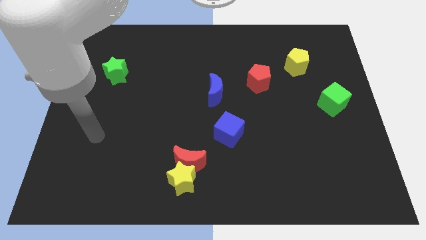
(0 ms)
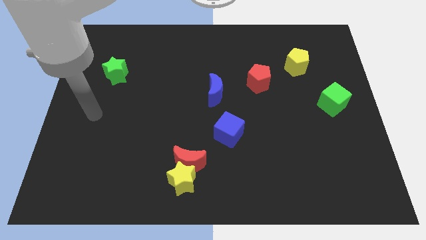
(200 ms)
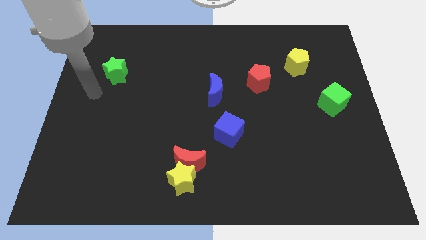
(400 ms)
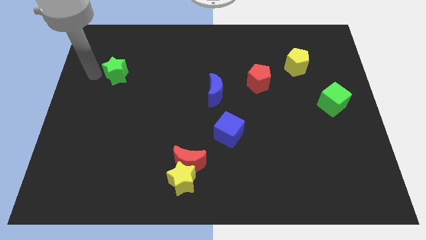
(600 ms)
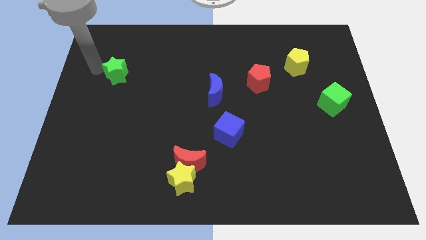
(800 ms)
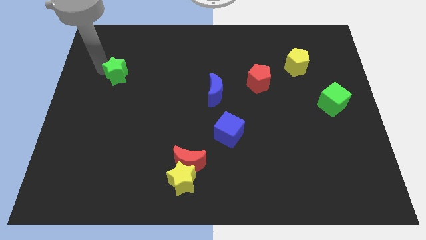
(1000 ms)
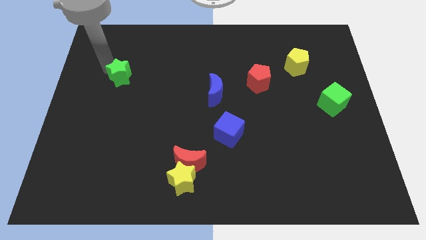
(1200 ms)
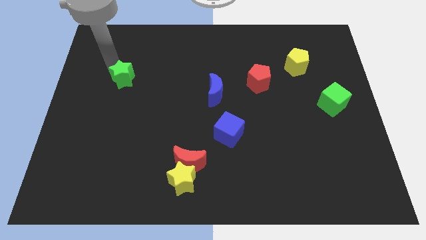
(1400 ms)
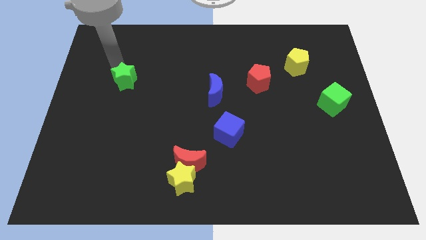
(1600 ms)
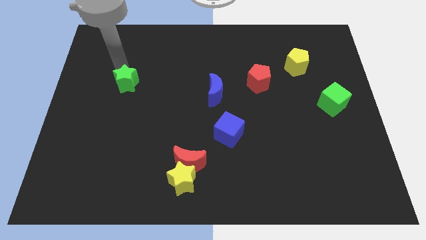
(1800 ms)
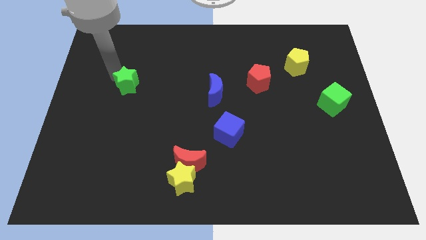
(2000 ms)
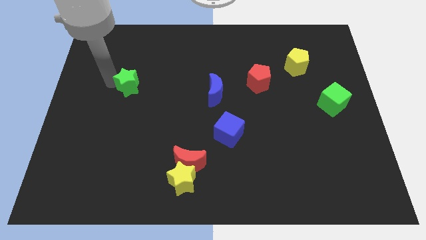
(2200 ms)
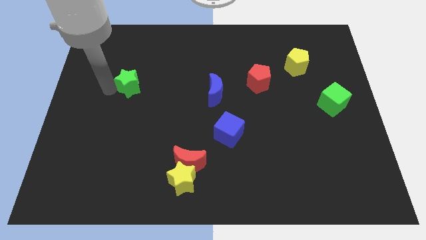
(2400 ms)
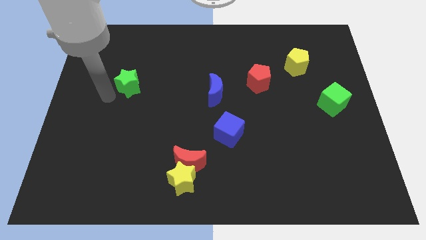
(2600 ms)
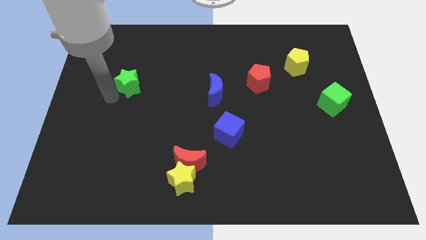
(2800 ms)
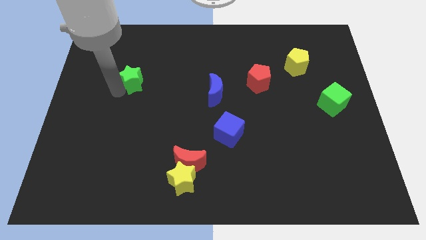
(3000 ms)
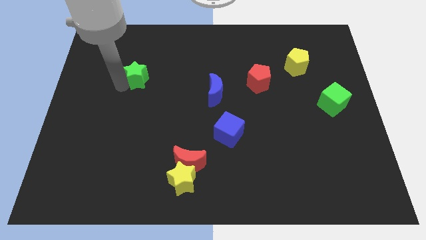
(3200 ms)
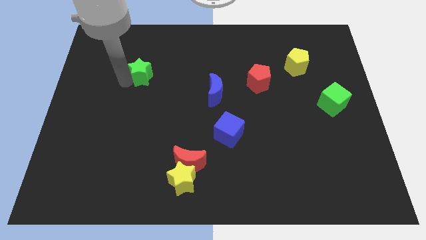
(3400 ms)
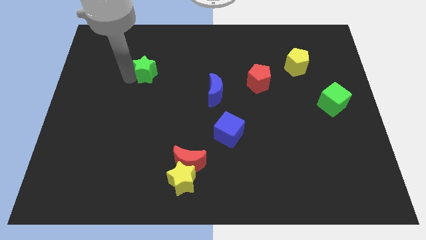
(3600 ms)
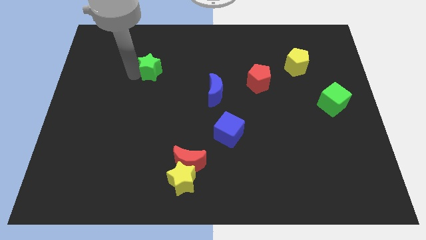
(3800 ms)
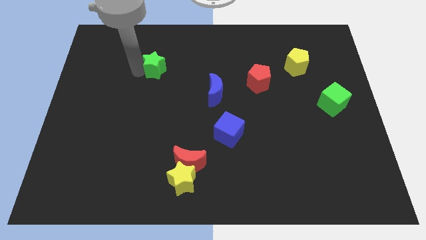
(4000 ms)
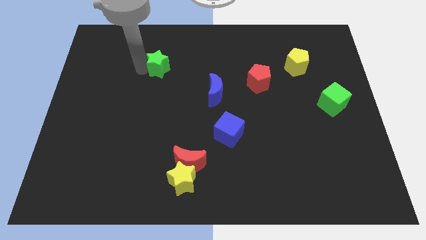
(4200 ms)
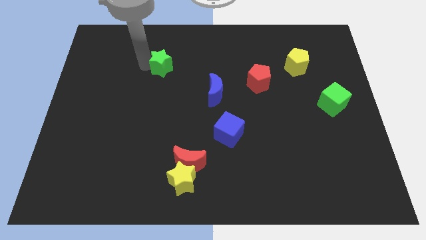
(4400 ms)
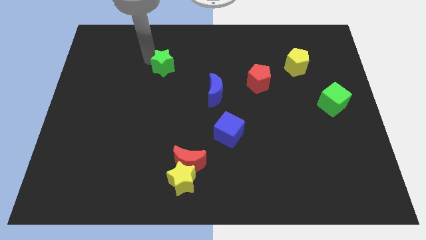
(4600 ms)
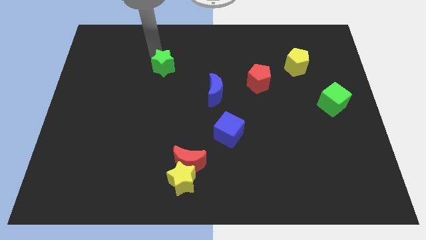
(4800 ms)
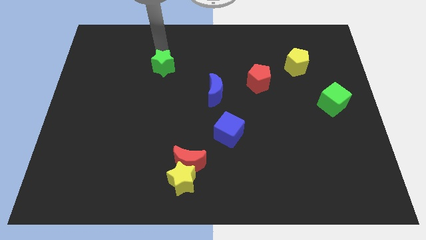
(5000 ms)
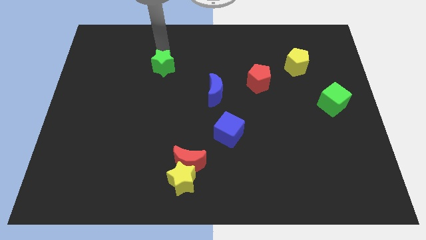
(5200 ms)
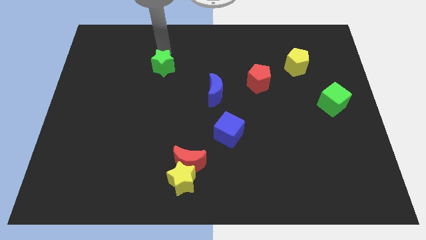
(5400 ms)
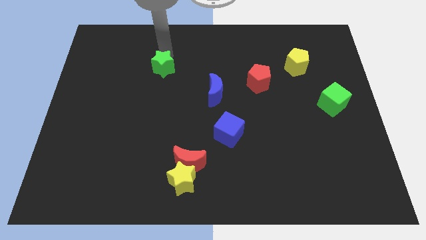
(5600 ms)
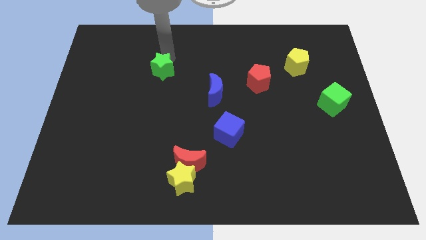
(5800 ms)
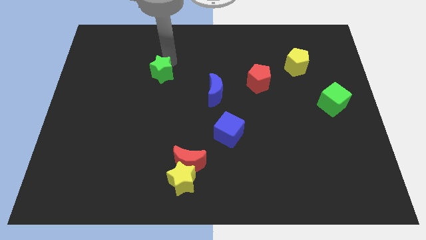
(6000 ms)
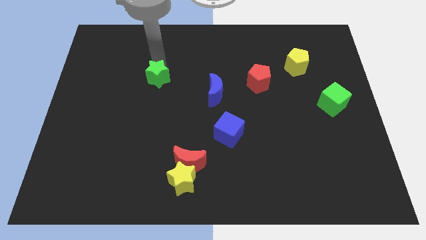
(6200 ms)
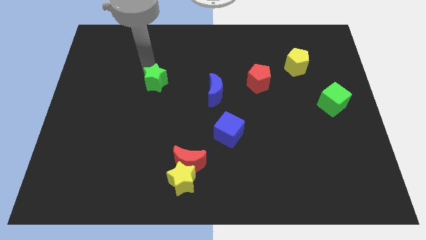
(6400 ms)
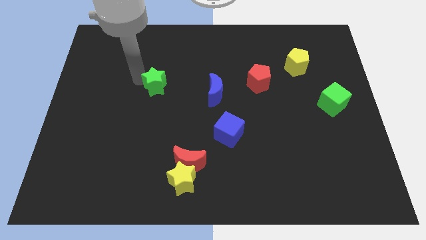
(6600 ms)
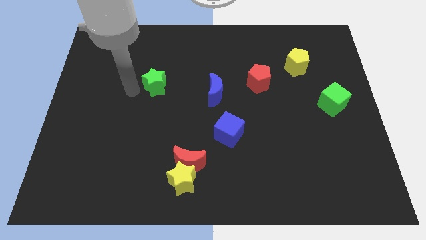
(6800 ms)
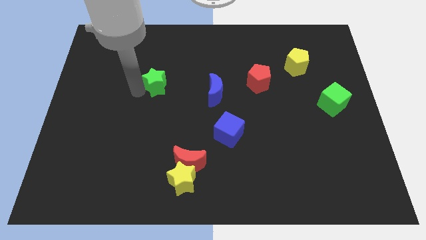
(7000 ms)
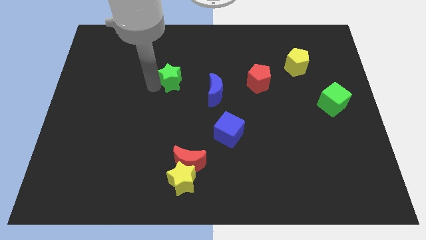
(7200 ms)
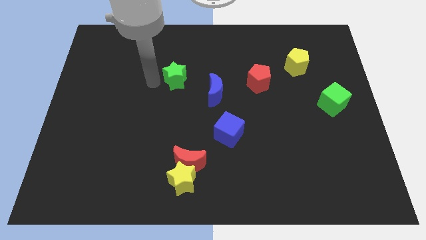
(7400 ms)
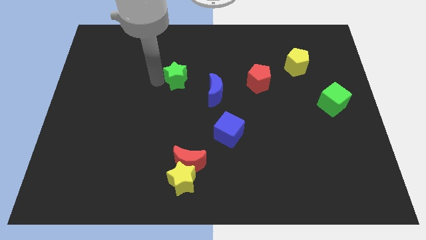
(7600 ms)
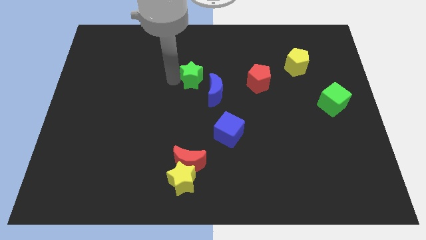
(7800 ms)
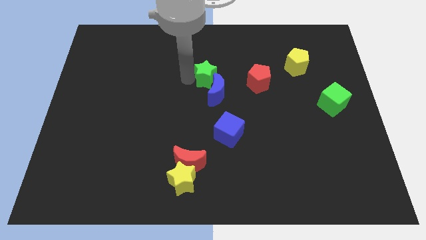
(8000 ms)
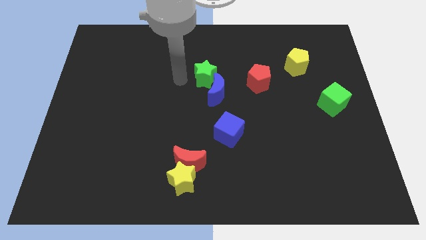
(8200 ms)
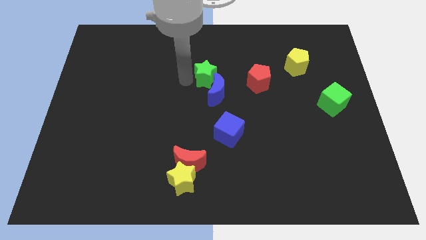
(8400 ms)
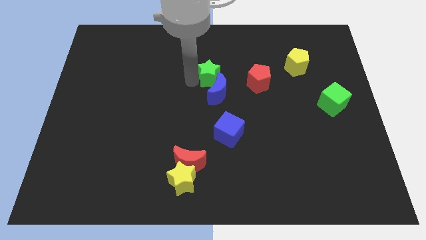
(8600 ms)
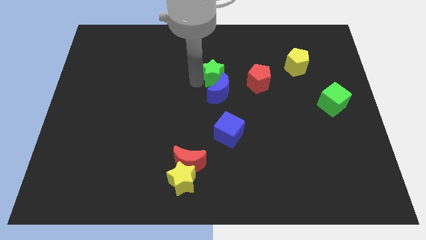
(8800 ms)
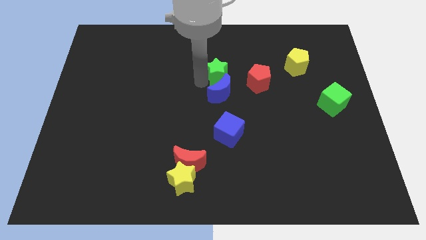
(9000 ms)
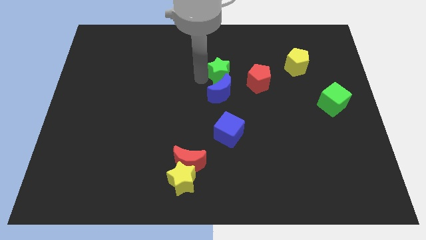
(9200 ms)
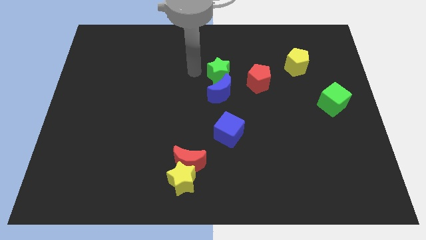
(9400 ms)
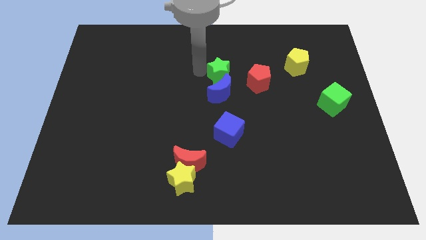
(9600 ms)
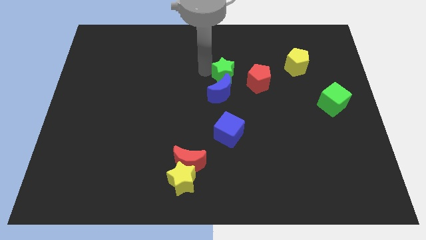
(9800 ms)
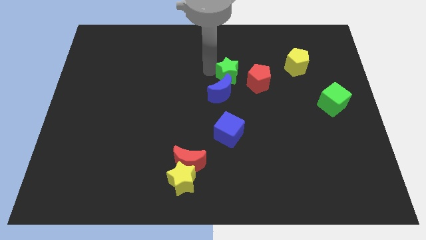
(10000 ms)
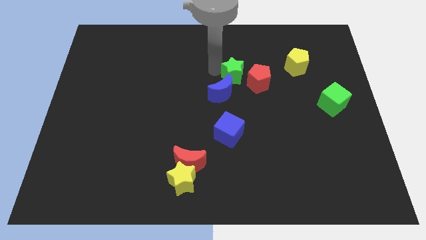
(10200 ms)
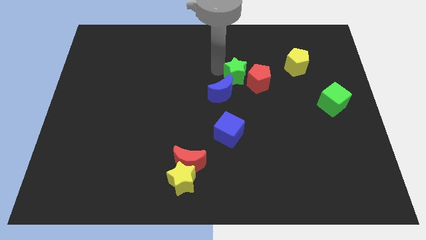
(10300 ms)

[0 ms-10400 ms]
put the green star close to the red pentagon

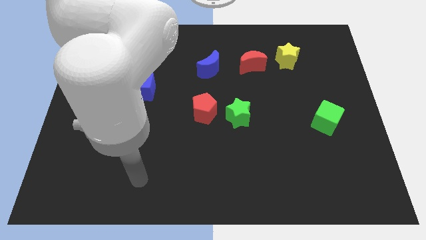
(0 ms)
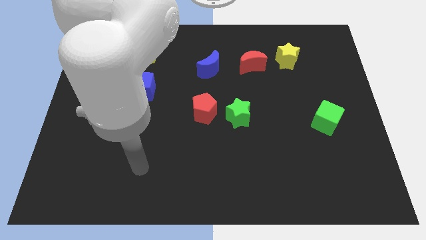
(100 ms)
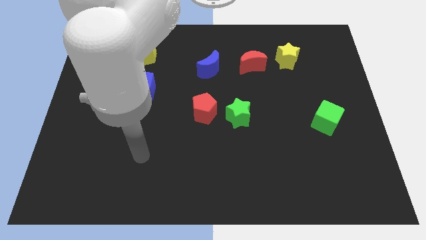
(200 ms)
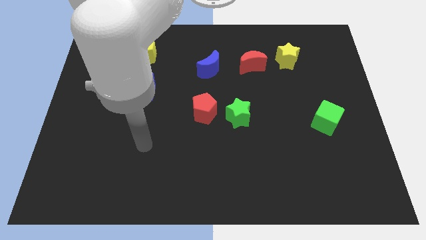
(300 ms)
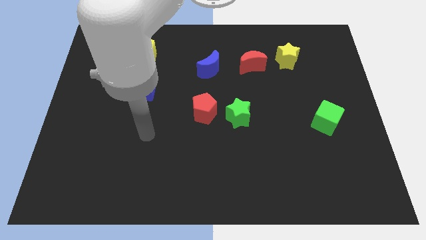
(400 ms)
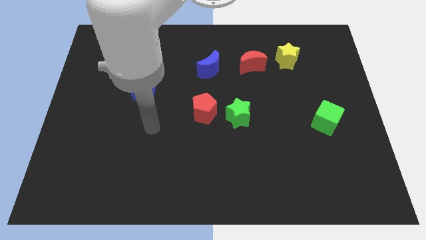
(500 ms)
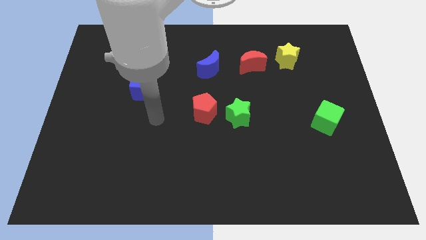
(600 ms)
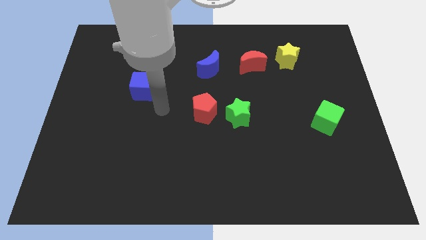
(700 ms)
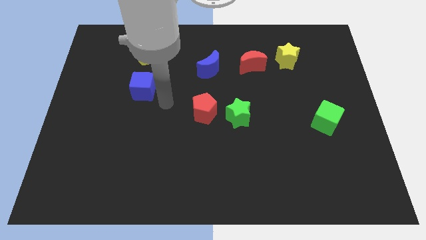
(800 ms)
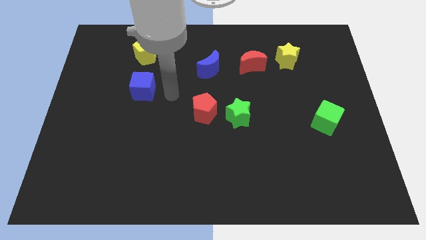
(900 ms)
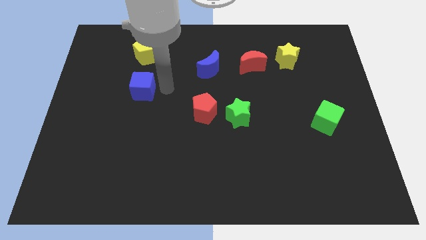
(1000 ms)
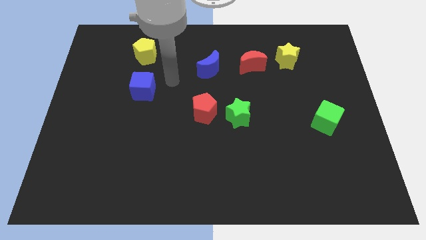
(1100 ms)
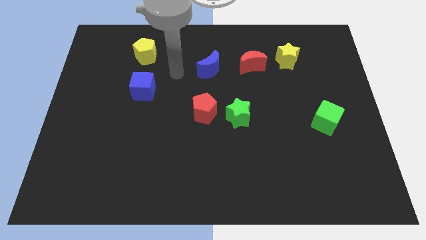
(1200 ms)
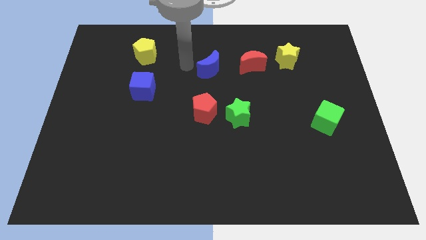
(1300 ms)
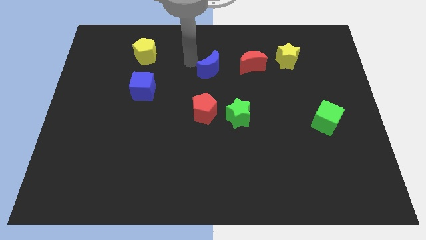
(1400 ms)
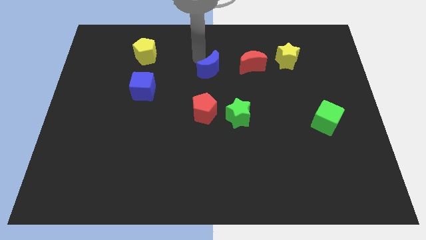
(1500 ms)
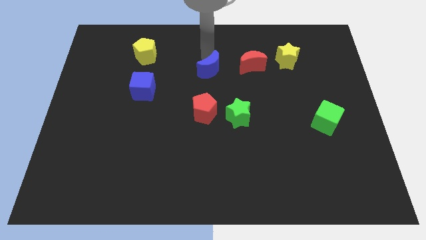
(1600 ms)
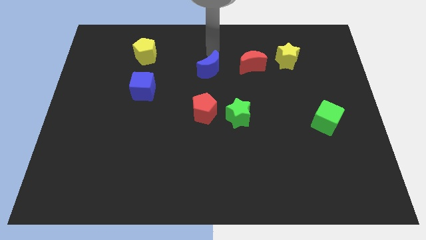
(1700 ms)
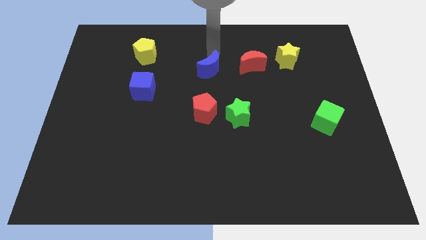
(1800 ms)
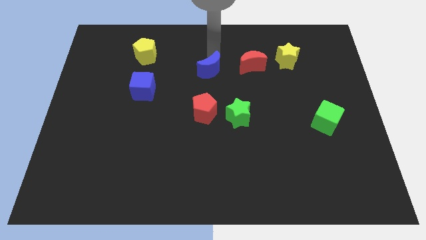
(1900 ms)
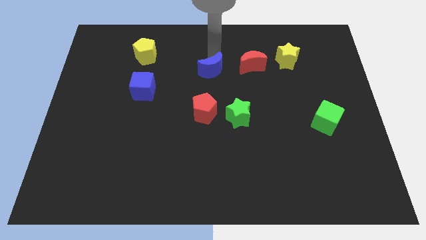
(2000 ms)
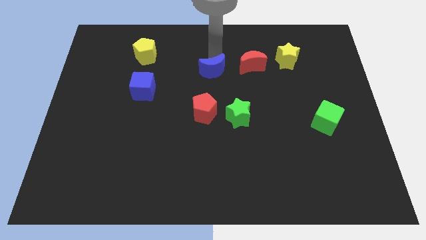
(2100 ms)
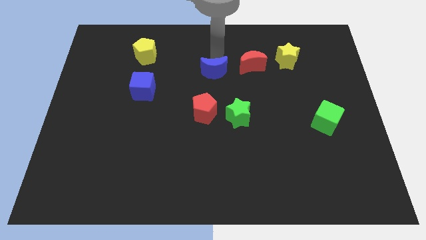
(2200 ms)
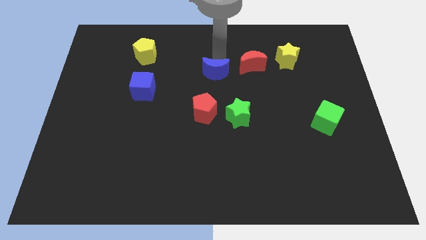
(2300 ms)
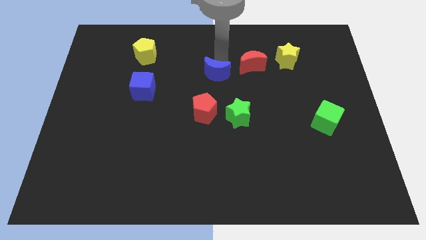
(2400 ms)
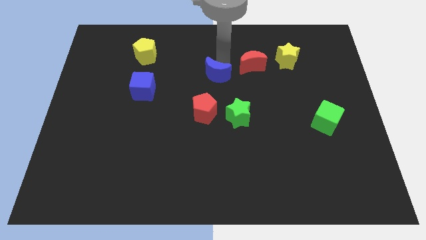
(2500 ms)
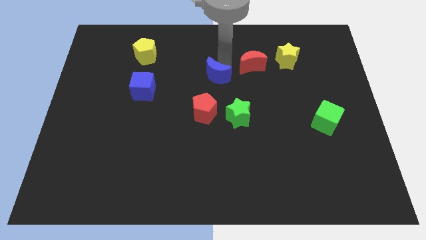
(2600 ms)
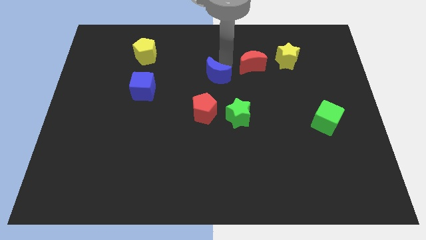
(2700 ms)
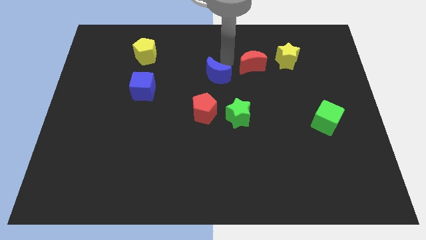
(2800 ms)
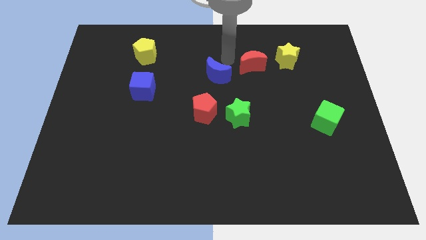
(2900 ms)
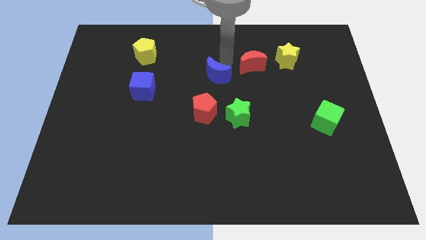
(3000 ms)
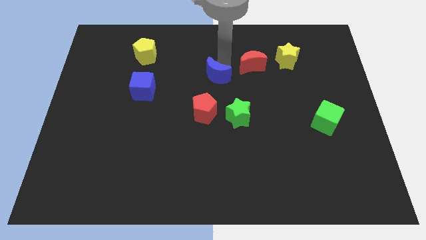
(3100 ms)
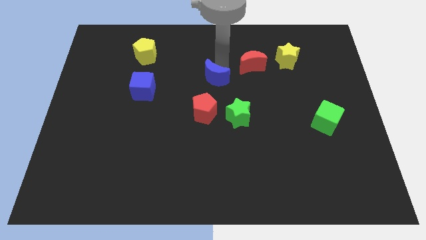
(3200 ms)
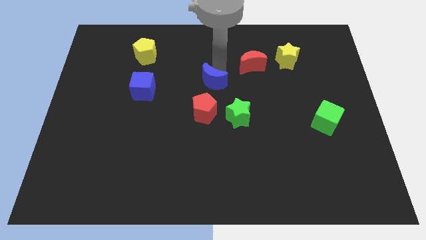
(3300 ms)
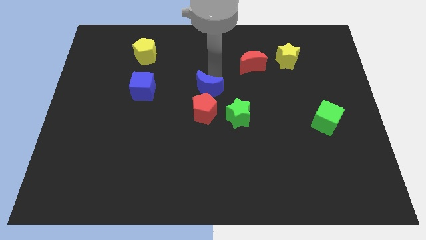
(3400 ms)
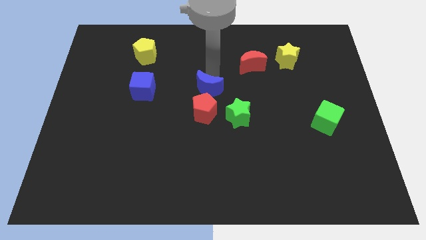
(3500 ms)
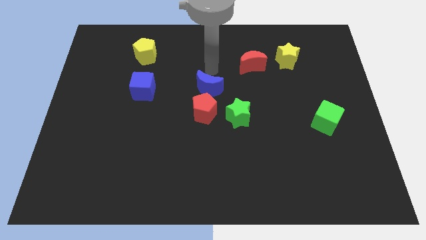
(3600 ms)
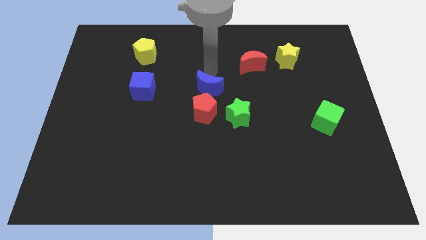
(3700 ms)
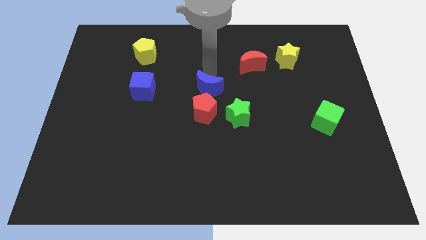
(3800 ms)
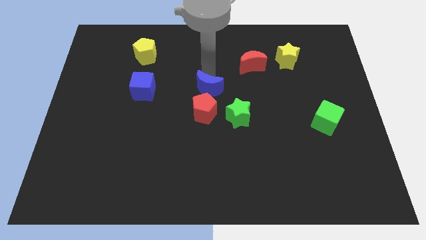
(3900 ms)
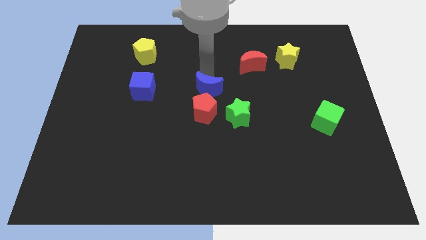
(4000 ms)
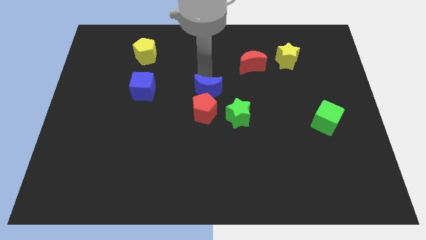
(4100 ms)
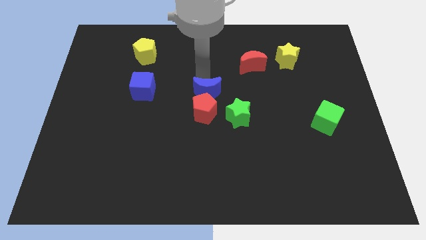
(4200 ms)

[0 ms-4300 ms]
move the blue moon towards the red pentagon
